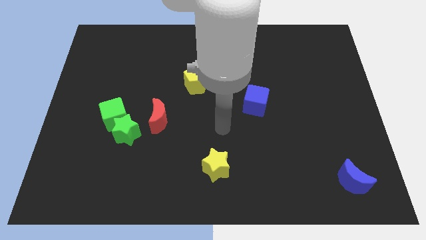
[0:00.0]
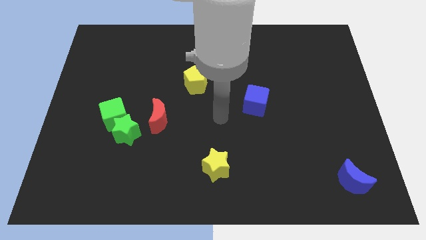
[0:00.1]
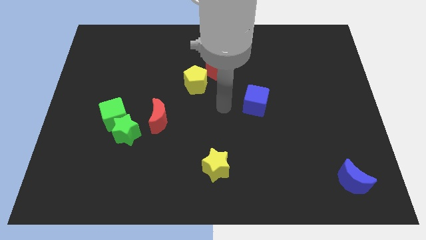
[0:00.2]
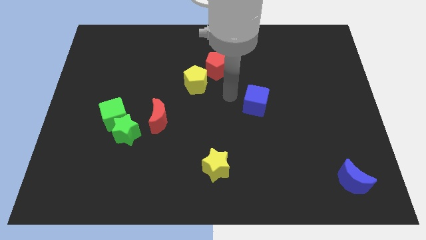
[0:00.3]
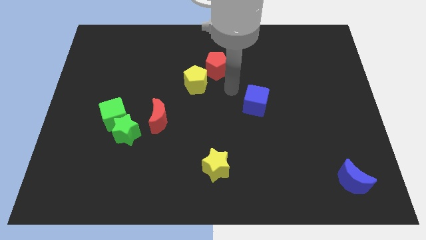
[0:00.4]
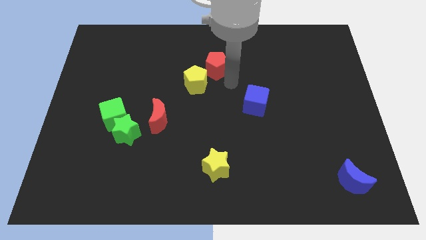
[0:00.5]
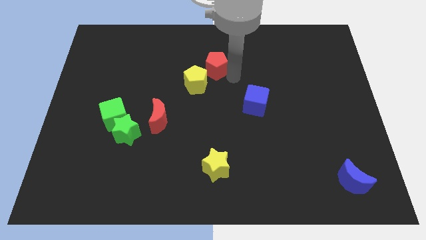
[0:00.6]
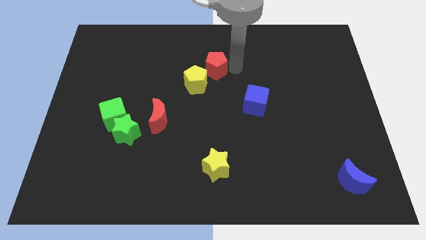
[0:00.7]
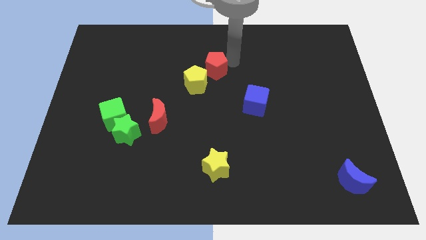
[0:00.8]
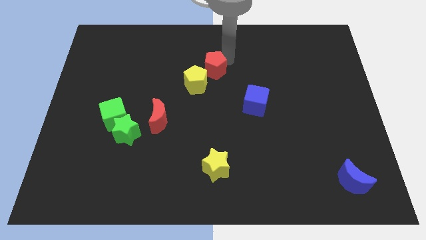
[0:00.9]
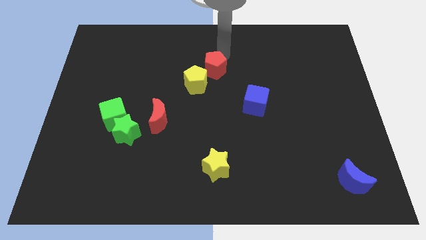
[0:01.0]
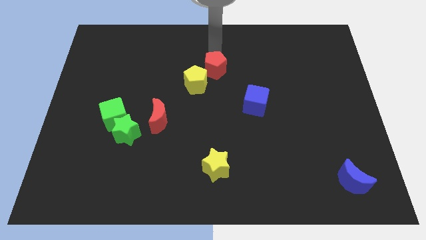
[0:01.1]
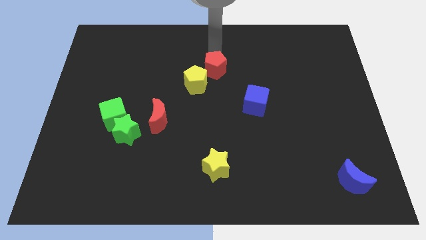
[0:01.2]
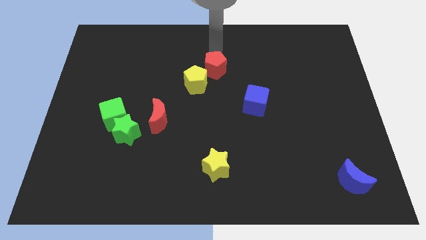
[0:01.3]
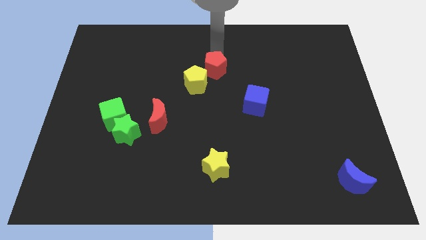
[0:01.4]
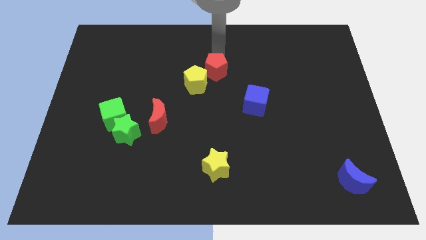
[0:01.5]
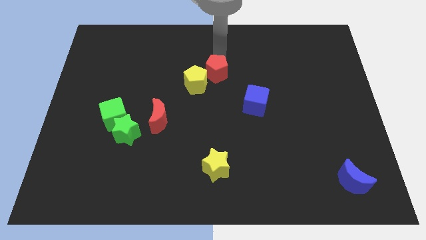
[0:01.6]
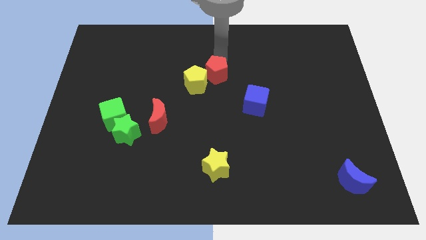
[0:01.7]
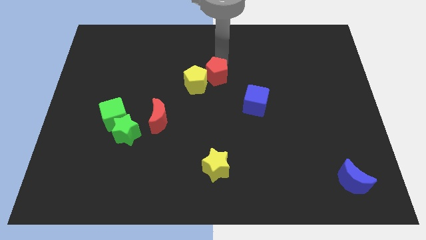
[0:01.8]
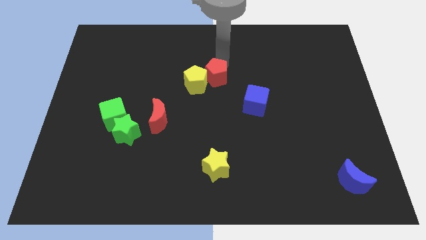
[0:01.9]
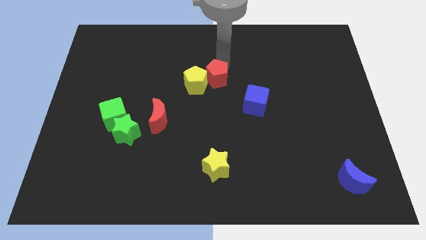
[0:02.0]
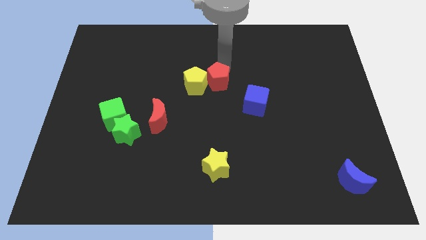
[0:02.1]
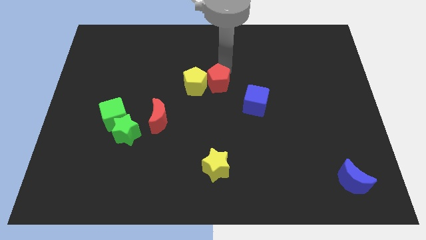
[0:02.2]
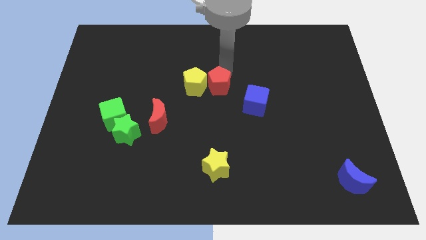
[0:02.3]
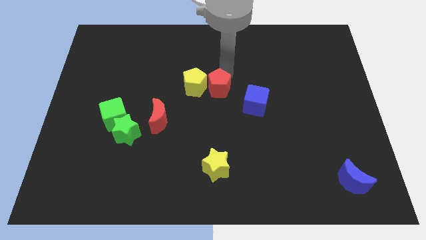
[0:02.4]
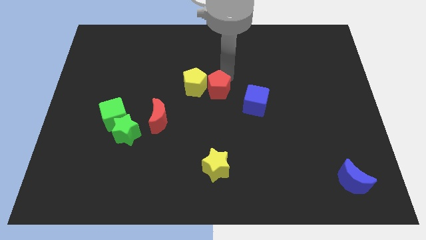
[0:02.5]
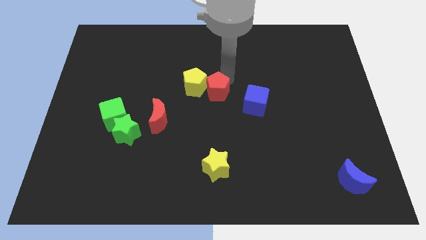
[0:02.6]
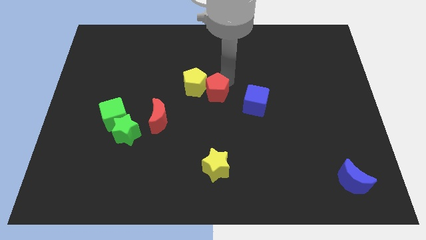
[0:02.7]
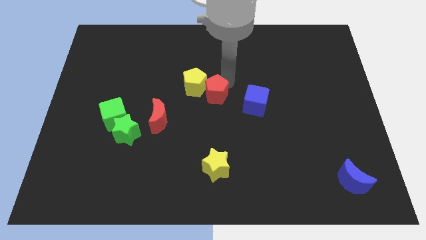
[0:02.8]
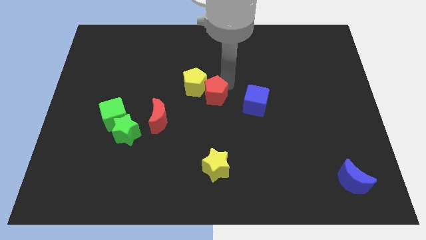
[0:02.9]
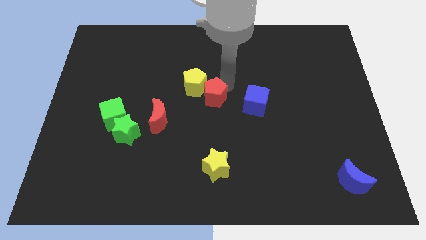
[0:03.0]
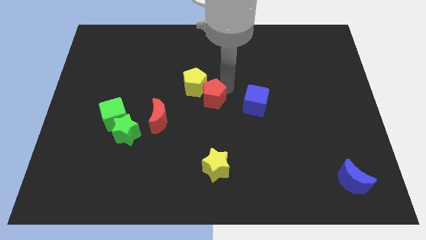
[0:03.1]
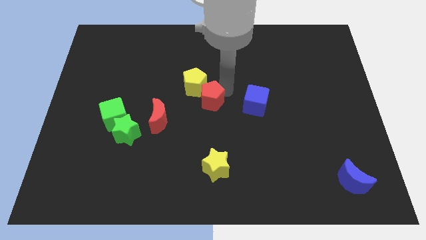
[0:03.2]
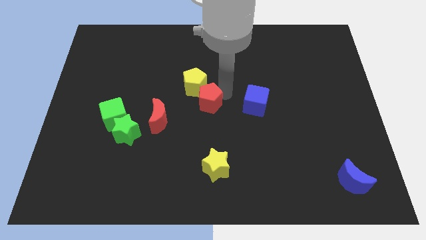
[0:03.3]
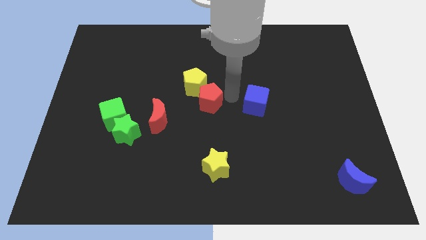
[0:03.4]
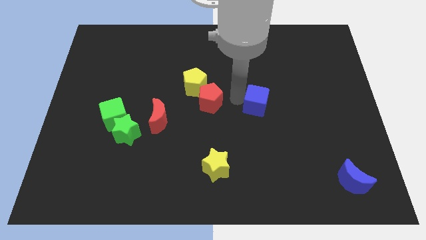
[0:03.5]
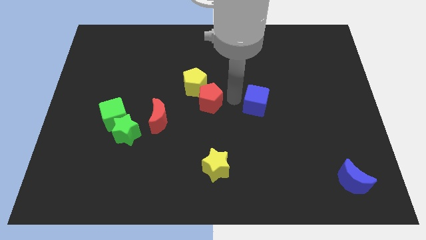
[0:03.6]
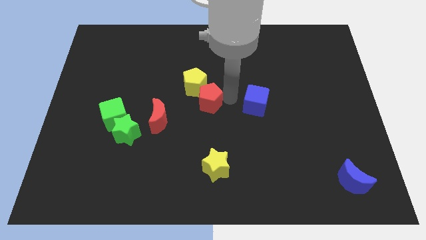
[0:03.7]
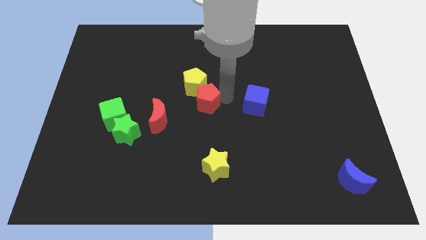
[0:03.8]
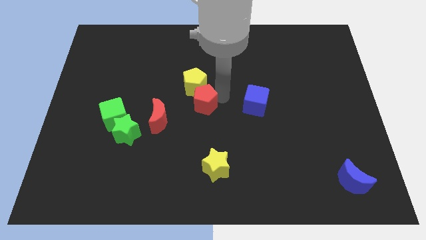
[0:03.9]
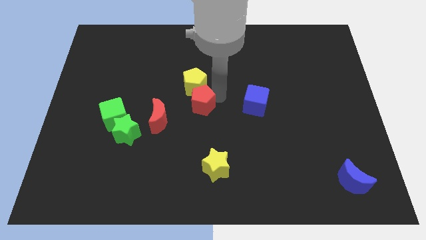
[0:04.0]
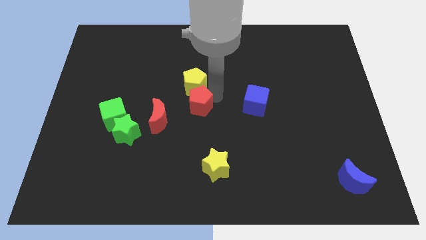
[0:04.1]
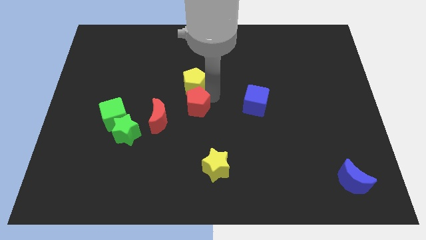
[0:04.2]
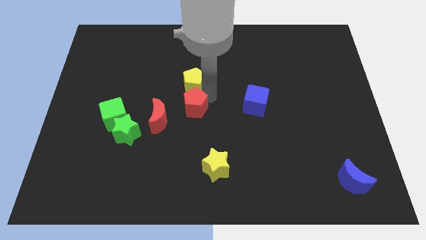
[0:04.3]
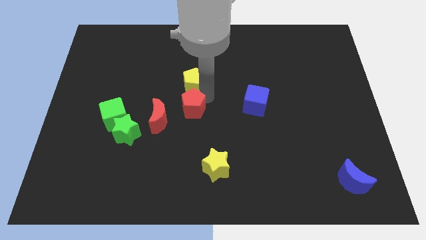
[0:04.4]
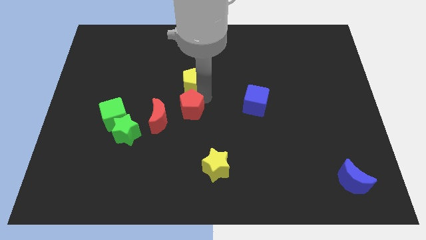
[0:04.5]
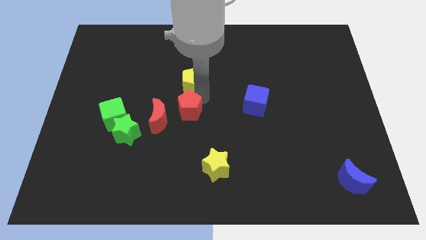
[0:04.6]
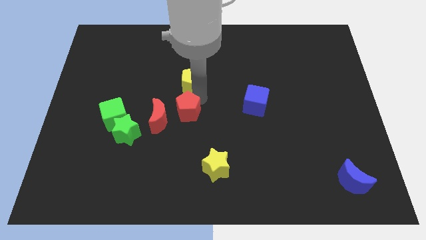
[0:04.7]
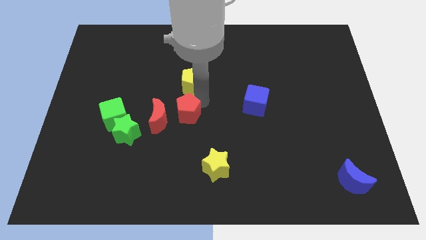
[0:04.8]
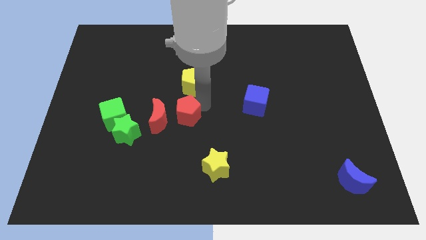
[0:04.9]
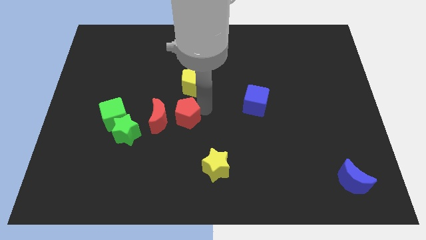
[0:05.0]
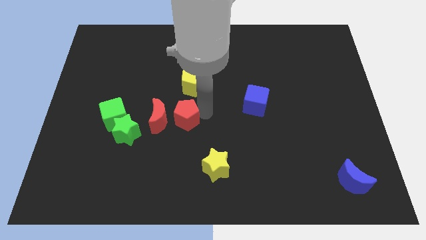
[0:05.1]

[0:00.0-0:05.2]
slide the red pentagon next to the red moon

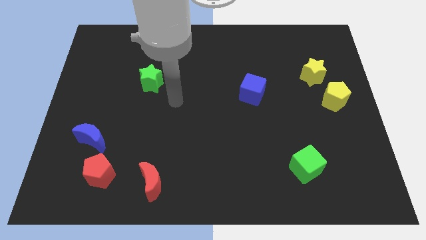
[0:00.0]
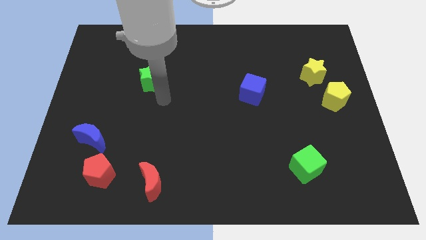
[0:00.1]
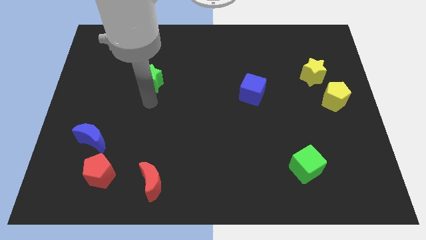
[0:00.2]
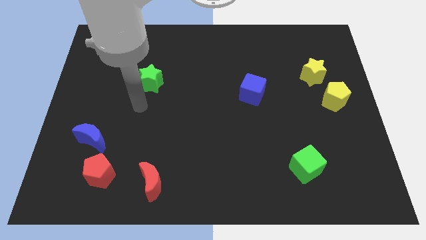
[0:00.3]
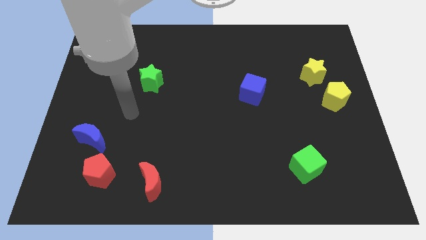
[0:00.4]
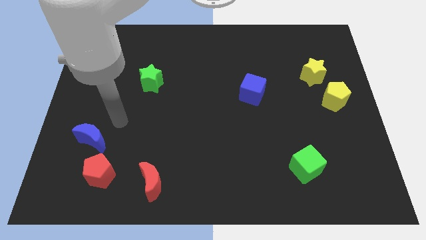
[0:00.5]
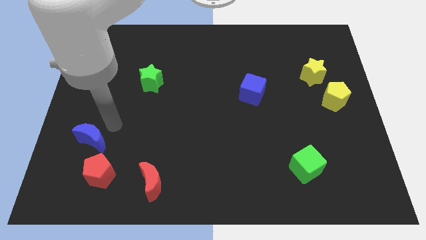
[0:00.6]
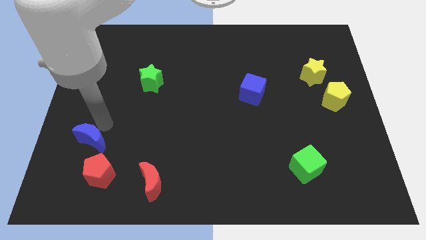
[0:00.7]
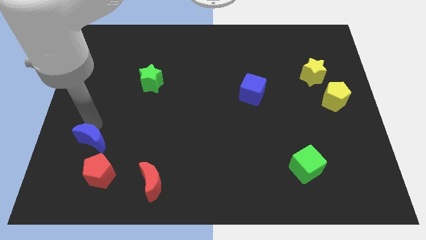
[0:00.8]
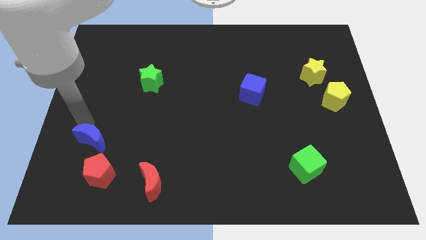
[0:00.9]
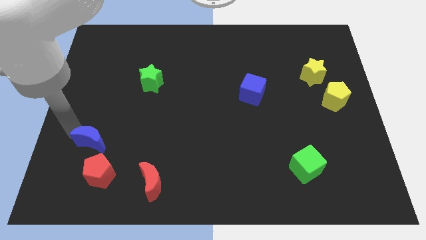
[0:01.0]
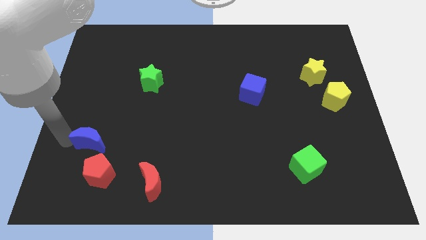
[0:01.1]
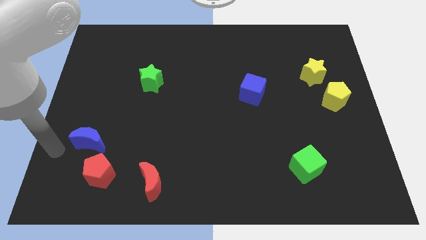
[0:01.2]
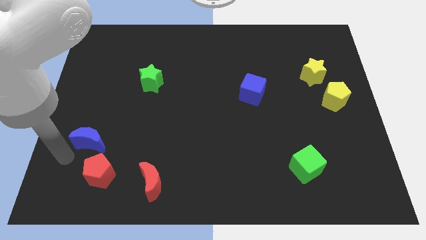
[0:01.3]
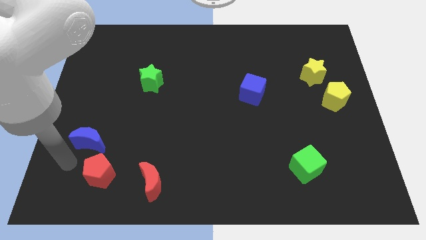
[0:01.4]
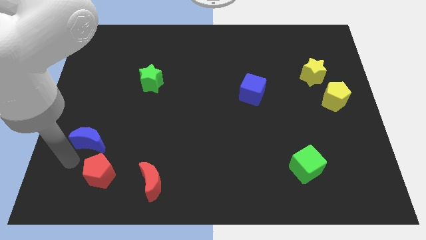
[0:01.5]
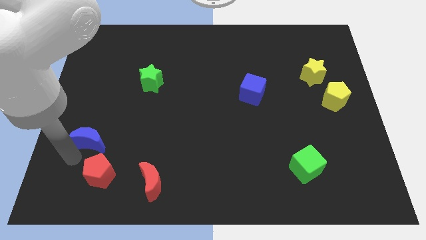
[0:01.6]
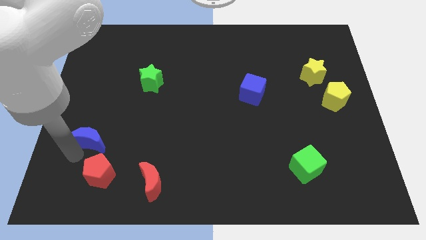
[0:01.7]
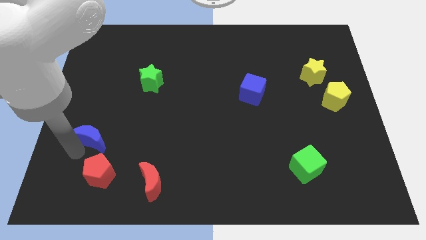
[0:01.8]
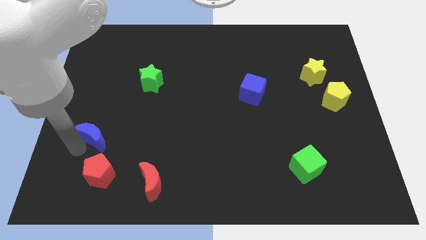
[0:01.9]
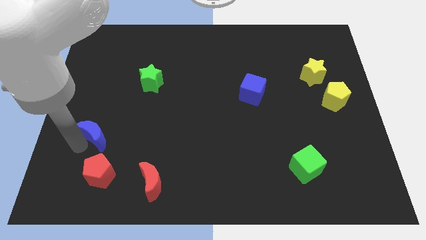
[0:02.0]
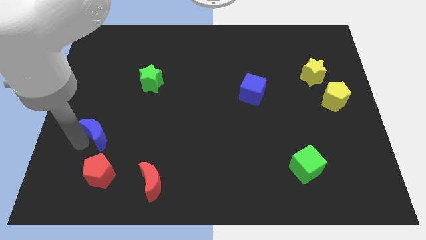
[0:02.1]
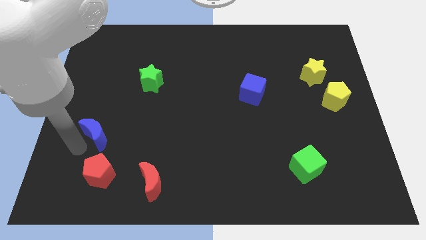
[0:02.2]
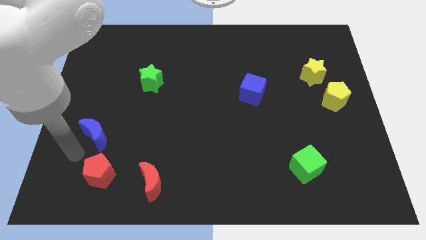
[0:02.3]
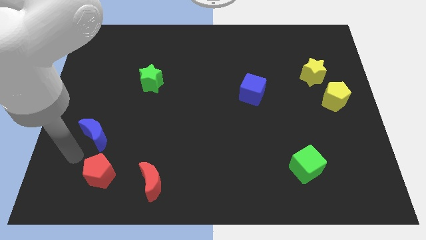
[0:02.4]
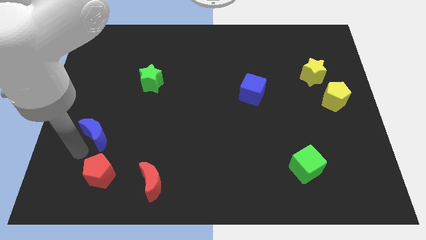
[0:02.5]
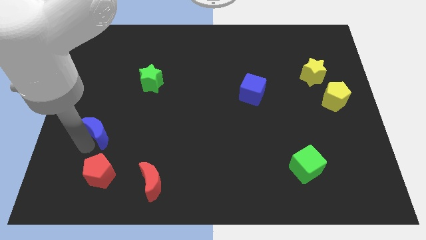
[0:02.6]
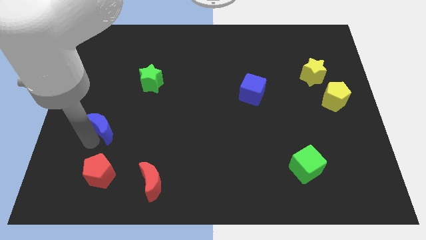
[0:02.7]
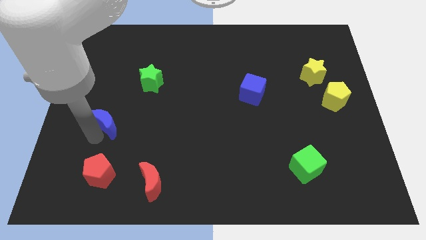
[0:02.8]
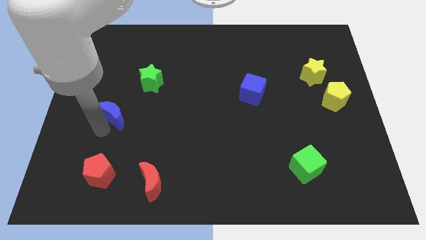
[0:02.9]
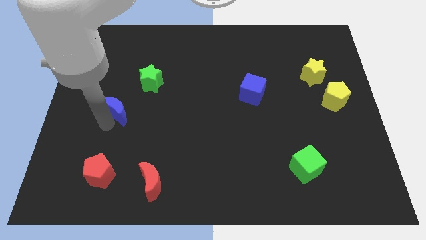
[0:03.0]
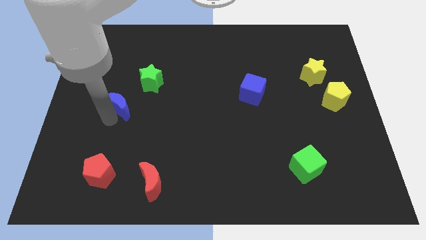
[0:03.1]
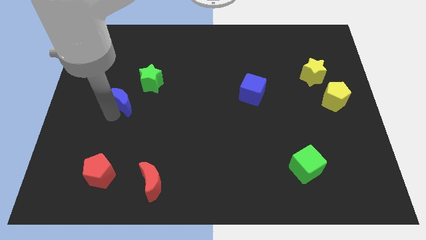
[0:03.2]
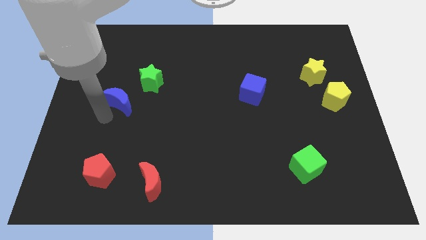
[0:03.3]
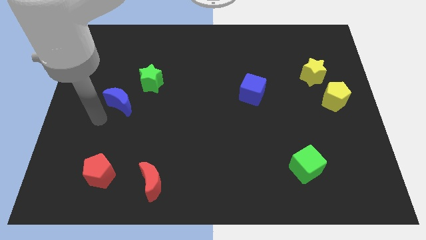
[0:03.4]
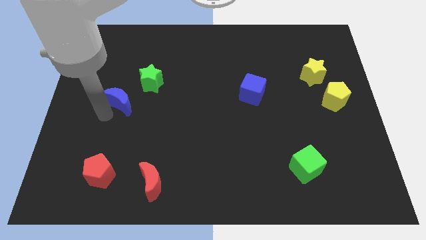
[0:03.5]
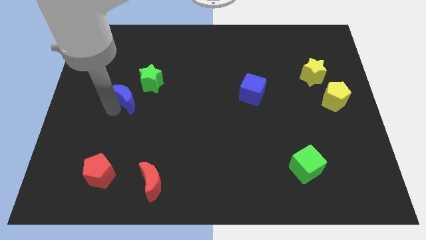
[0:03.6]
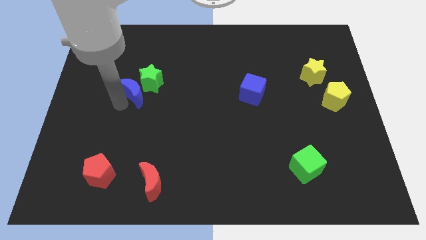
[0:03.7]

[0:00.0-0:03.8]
put the blue moon to the green star
